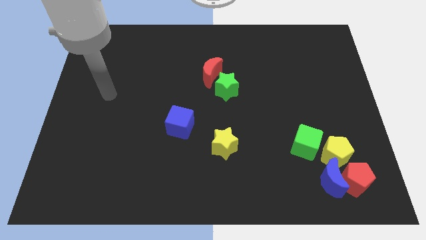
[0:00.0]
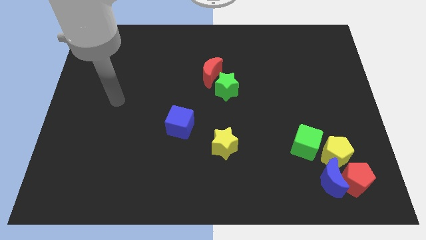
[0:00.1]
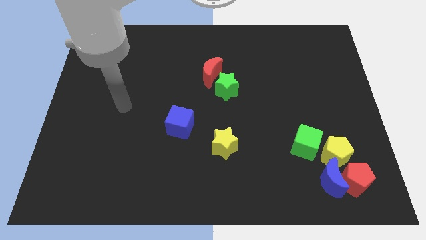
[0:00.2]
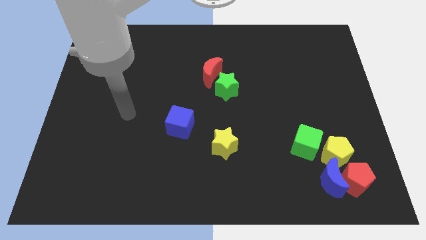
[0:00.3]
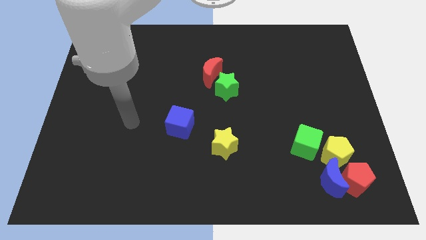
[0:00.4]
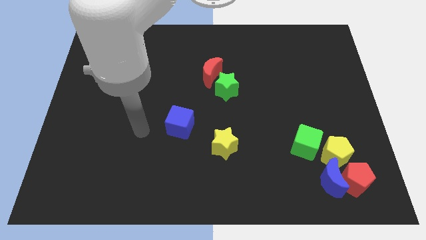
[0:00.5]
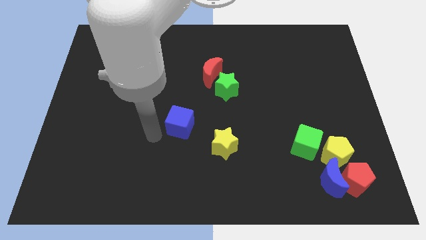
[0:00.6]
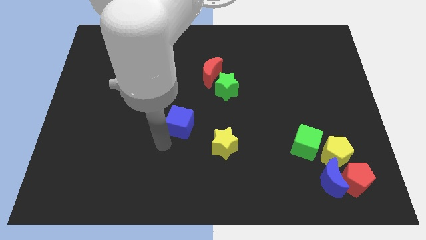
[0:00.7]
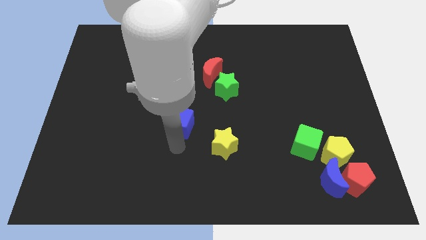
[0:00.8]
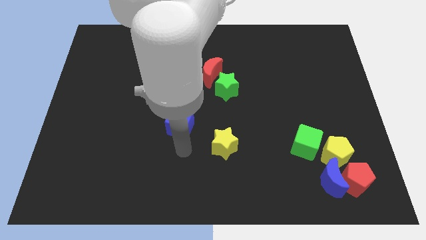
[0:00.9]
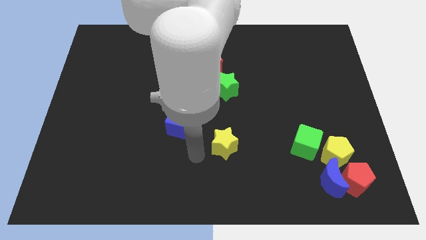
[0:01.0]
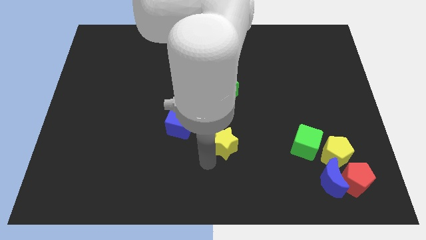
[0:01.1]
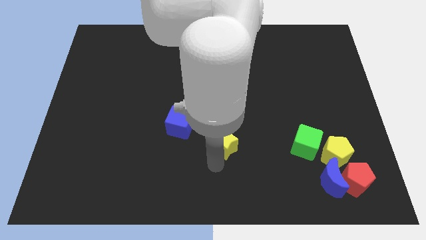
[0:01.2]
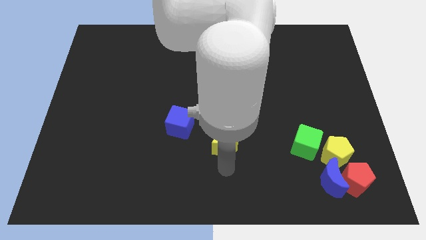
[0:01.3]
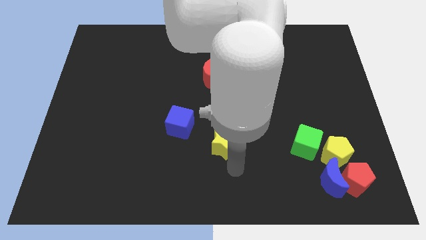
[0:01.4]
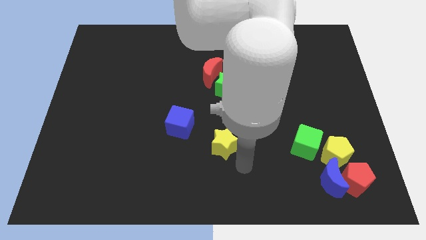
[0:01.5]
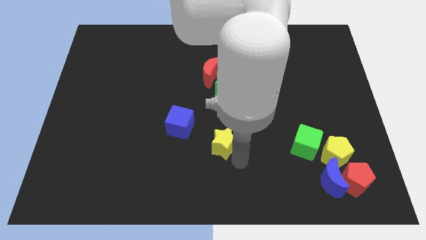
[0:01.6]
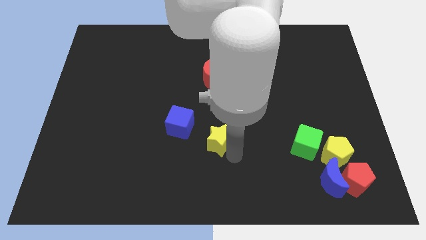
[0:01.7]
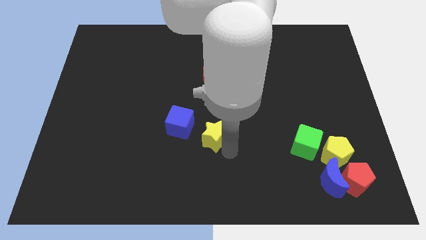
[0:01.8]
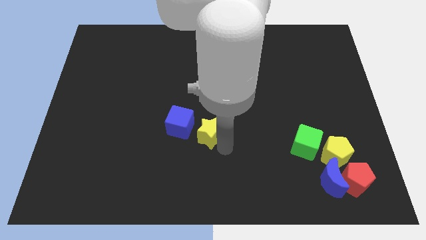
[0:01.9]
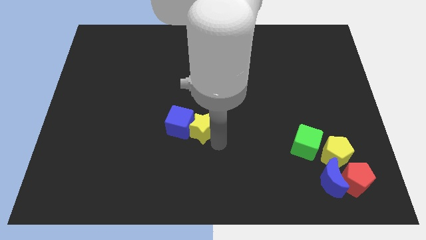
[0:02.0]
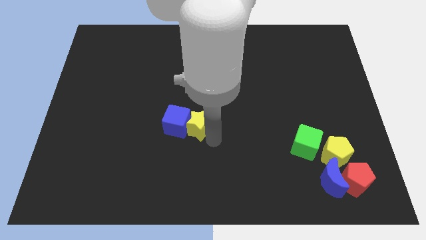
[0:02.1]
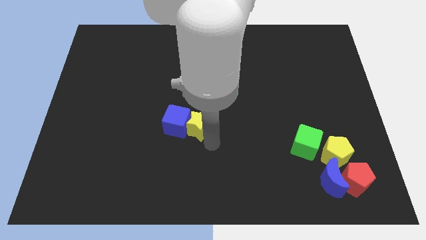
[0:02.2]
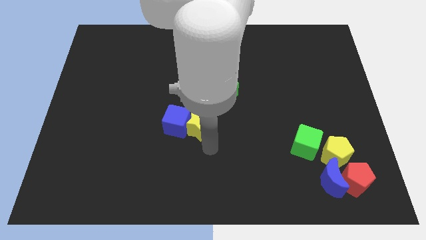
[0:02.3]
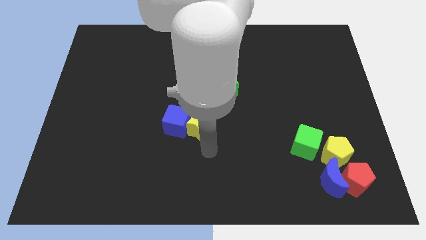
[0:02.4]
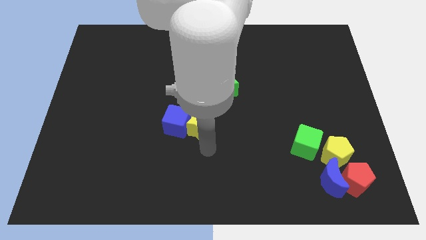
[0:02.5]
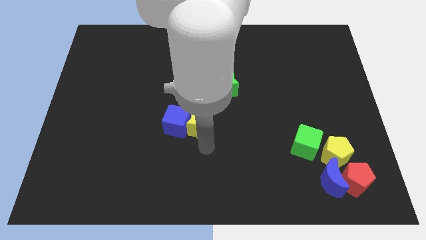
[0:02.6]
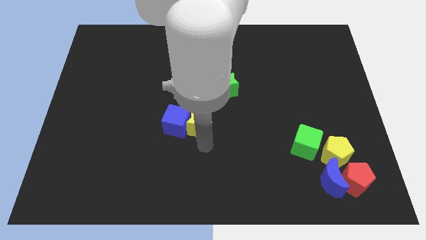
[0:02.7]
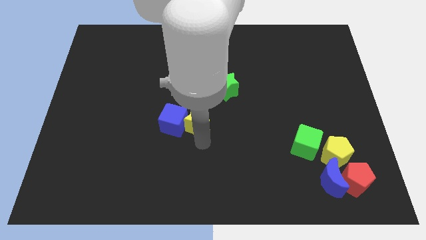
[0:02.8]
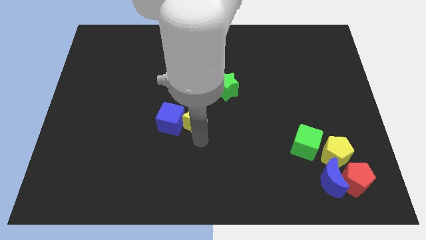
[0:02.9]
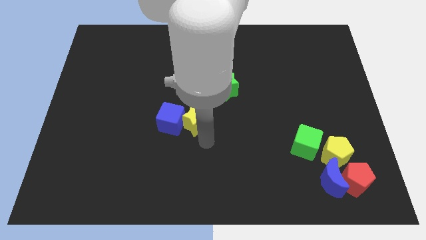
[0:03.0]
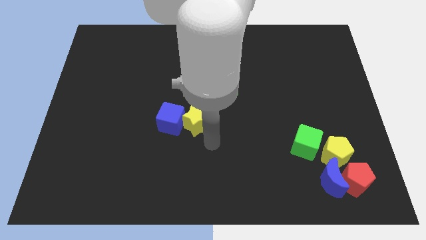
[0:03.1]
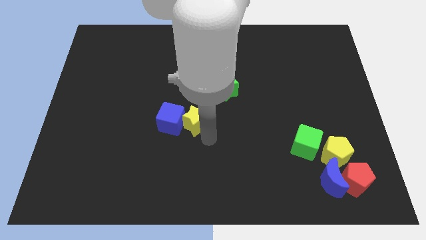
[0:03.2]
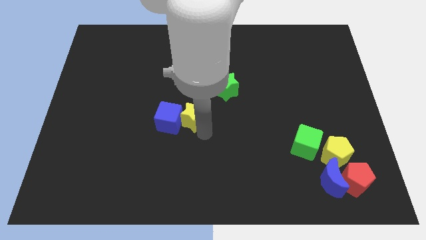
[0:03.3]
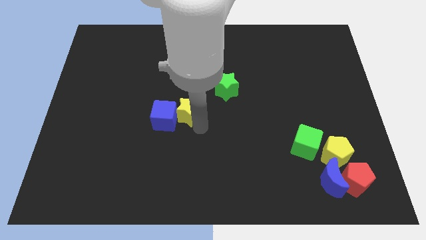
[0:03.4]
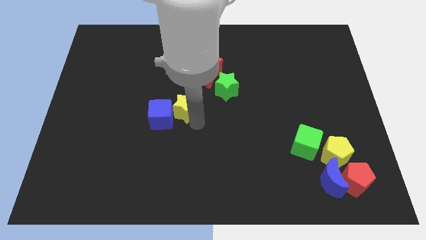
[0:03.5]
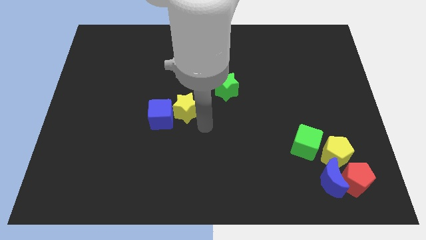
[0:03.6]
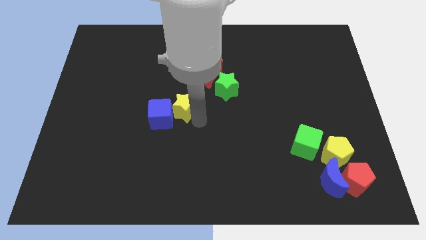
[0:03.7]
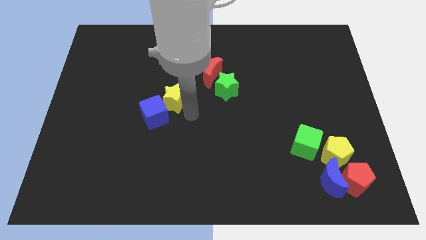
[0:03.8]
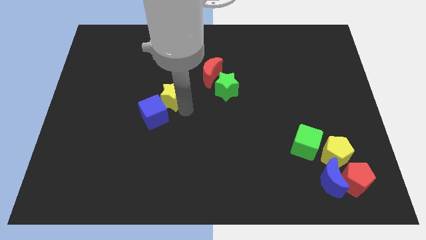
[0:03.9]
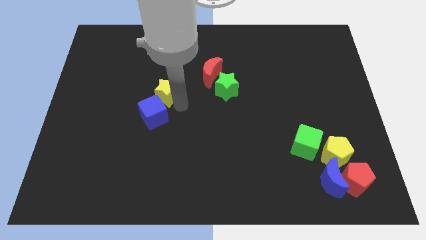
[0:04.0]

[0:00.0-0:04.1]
push the yellow star up and left

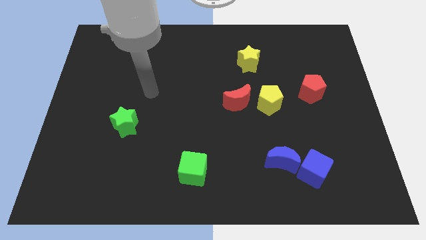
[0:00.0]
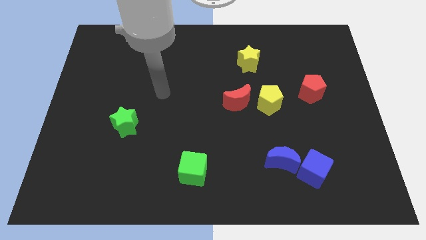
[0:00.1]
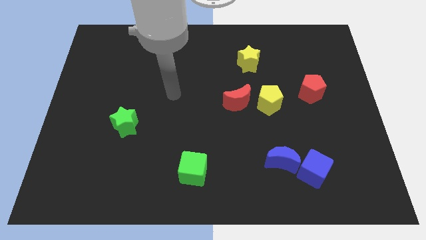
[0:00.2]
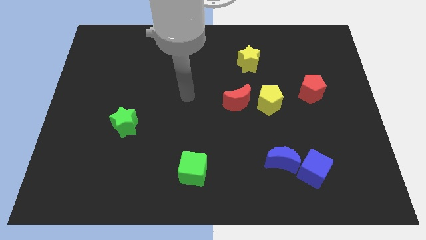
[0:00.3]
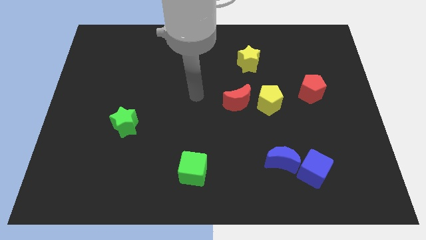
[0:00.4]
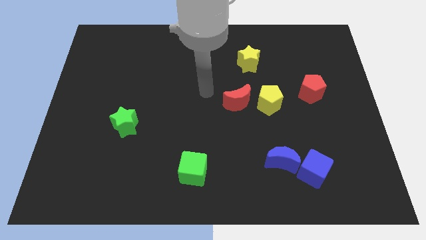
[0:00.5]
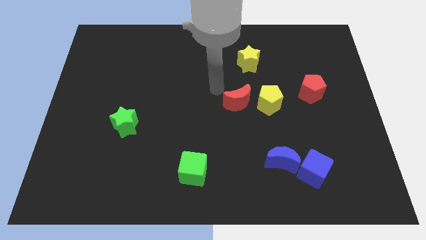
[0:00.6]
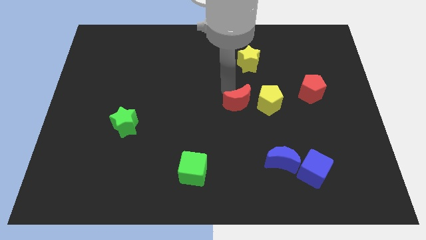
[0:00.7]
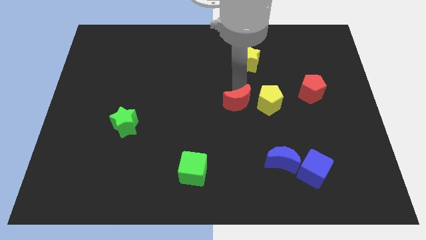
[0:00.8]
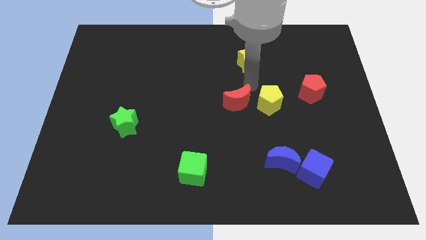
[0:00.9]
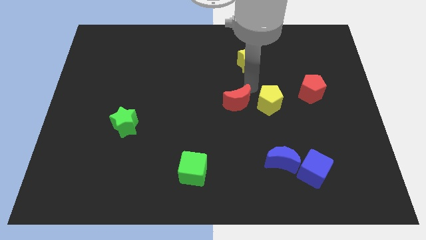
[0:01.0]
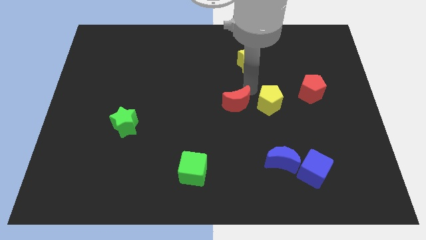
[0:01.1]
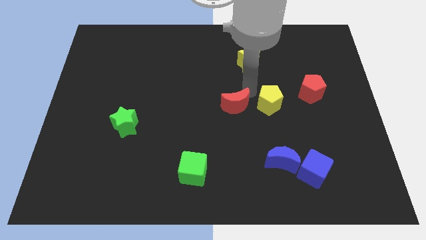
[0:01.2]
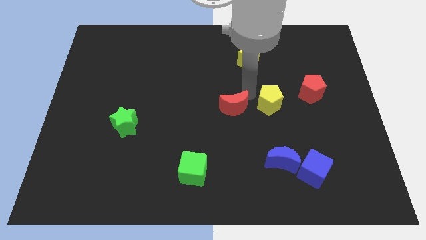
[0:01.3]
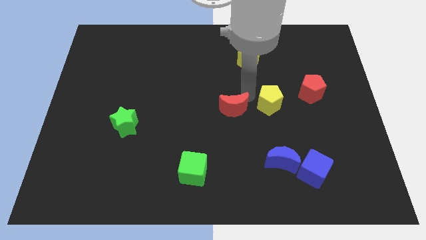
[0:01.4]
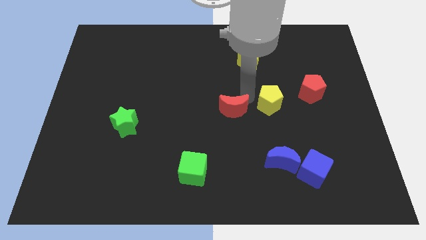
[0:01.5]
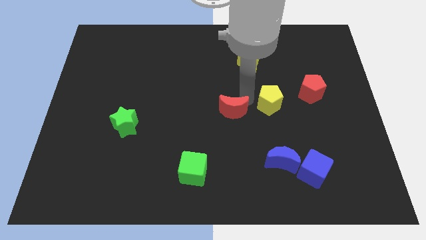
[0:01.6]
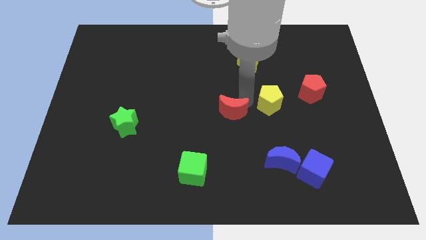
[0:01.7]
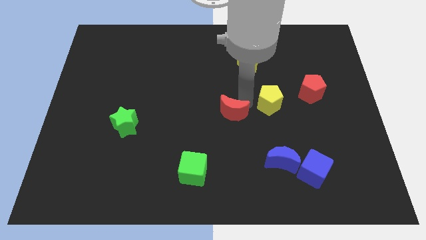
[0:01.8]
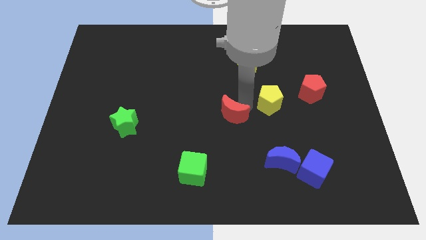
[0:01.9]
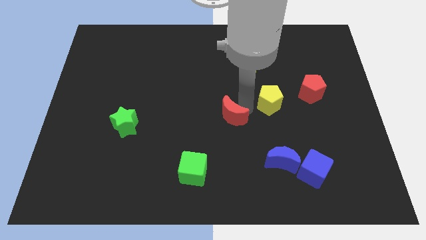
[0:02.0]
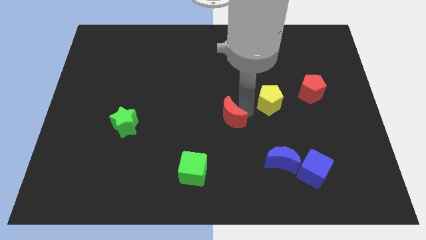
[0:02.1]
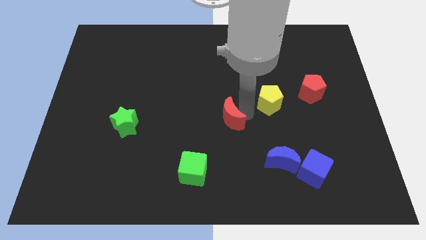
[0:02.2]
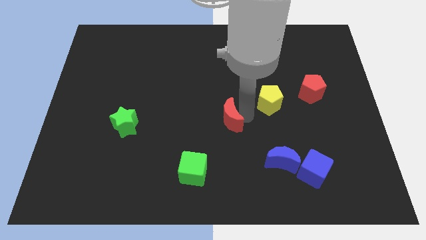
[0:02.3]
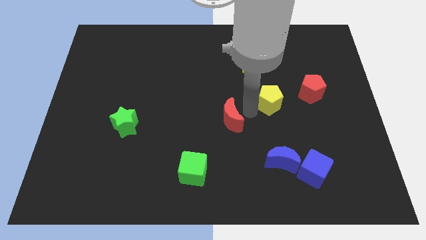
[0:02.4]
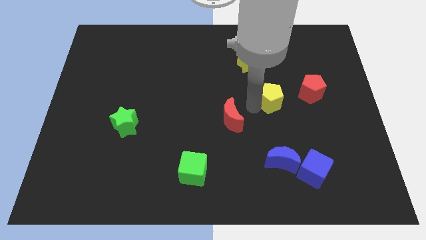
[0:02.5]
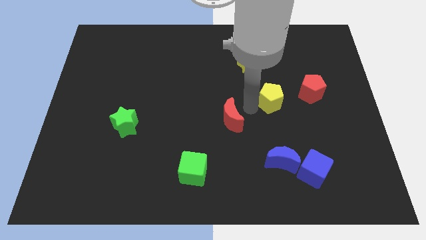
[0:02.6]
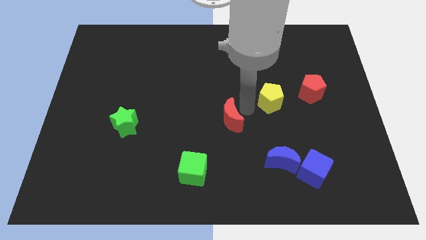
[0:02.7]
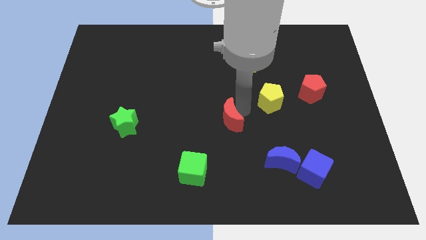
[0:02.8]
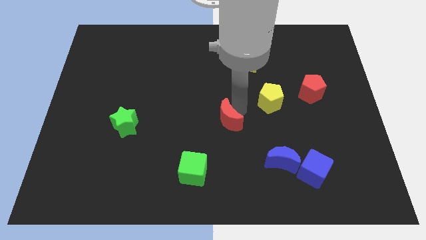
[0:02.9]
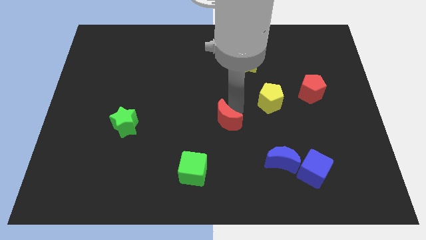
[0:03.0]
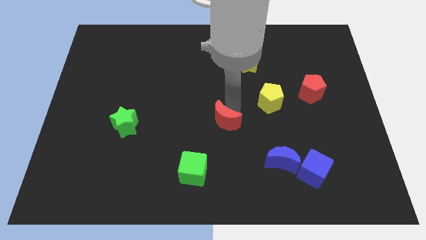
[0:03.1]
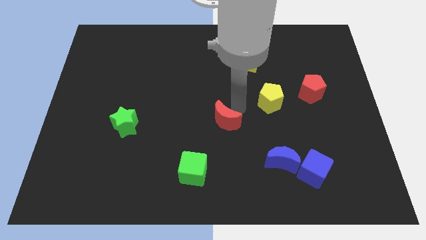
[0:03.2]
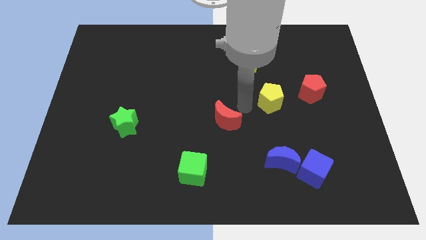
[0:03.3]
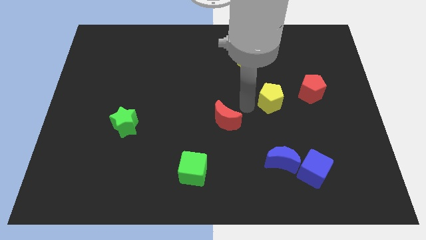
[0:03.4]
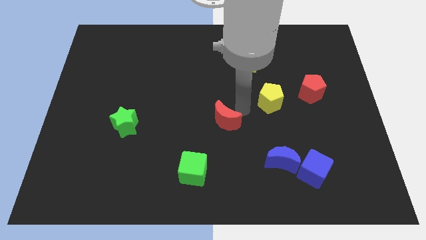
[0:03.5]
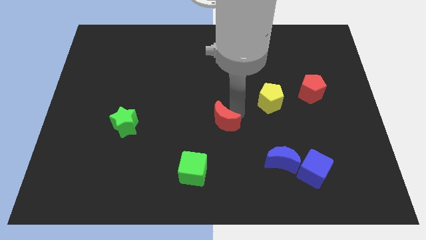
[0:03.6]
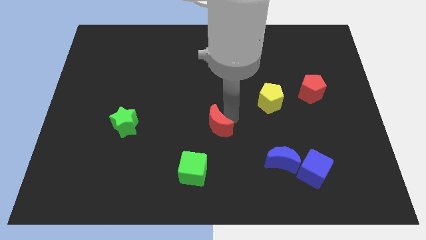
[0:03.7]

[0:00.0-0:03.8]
push the red moon down and then left a bit

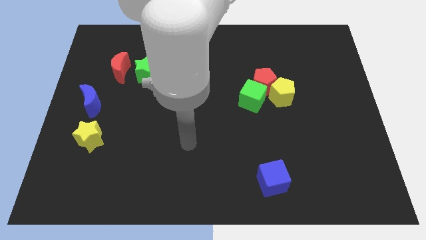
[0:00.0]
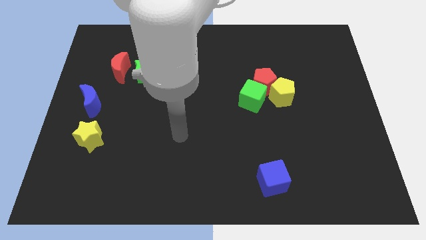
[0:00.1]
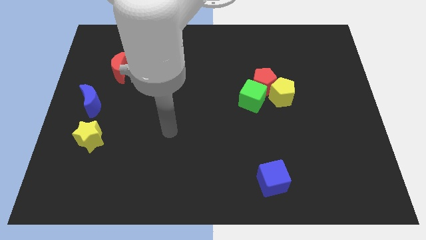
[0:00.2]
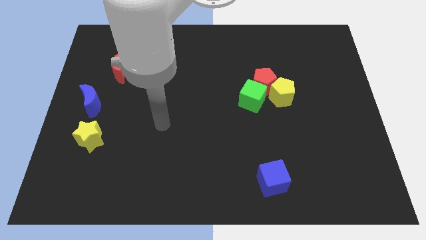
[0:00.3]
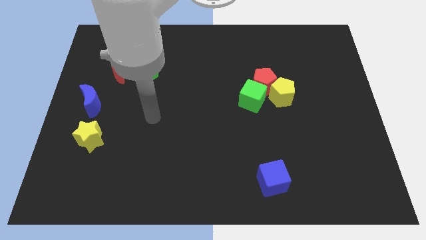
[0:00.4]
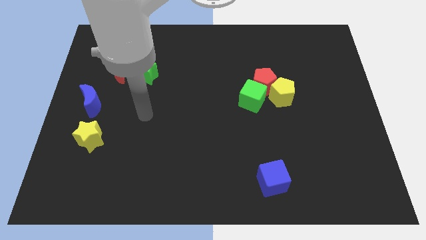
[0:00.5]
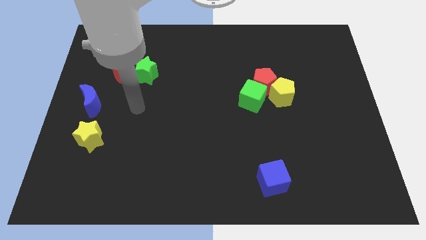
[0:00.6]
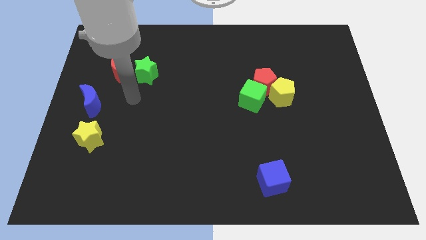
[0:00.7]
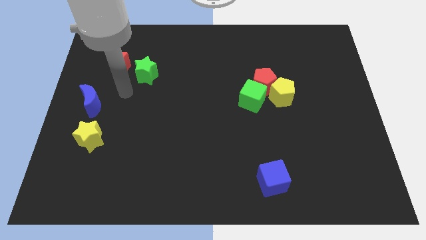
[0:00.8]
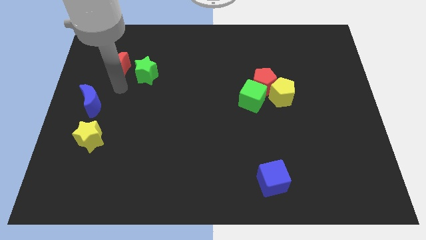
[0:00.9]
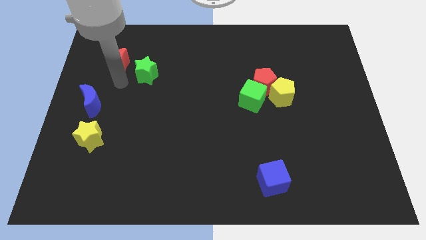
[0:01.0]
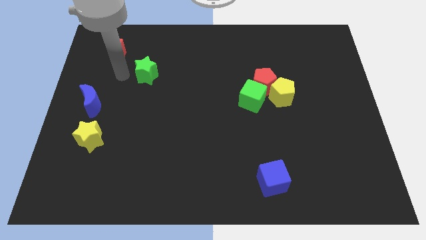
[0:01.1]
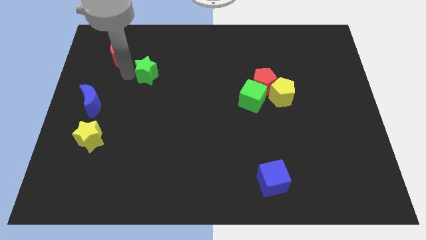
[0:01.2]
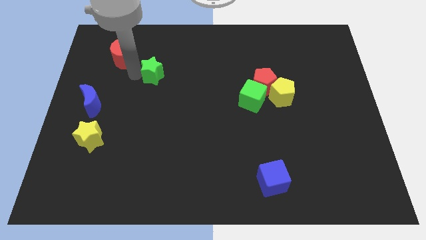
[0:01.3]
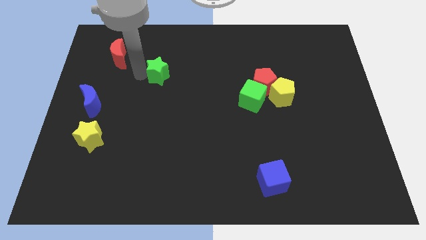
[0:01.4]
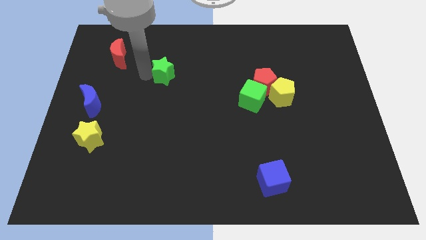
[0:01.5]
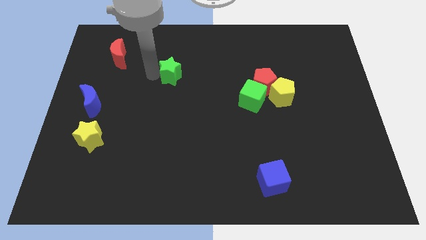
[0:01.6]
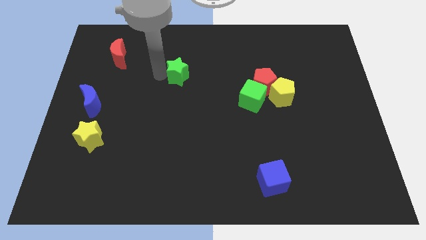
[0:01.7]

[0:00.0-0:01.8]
slide the green star right slightly
